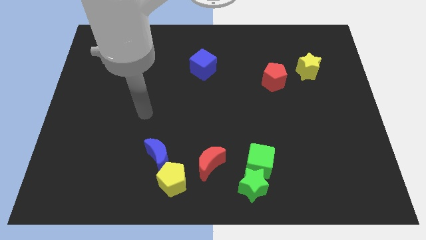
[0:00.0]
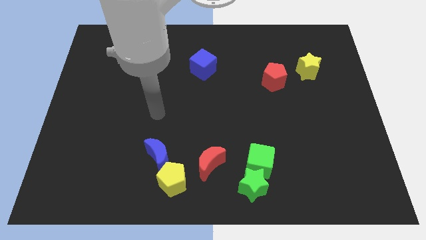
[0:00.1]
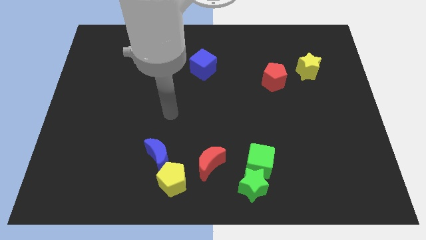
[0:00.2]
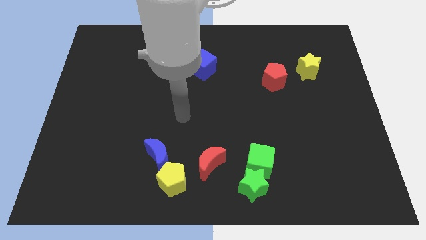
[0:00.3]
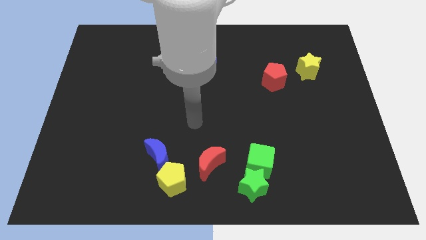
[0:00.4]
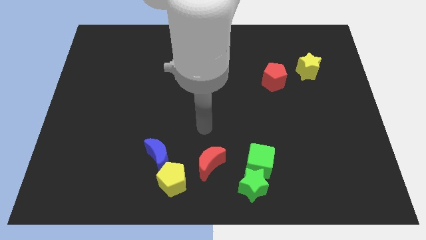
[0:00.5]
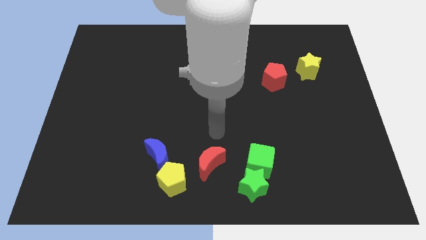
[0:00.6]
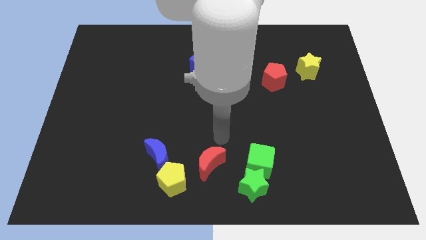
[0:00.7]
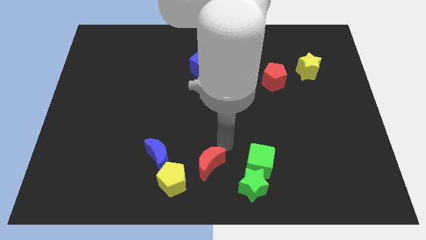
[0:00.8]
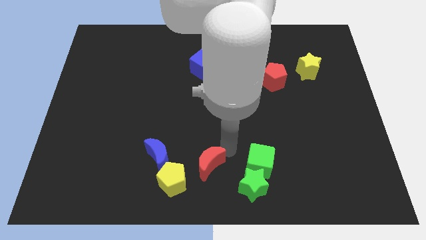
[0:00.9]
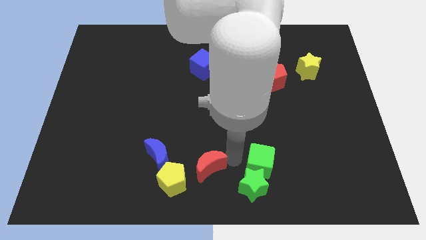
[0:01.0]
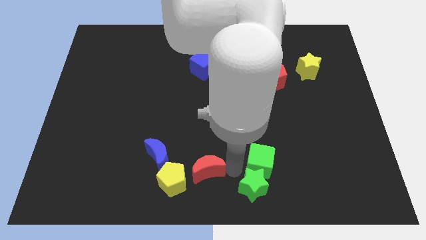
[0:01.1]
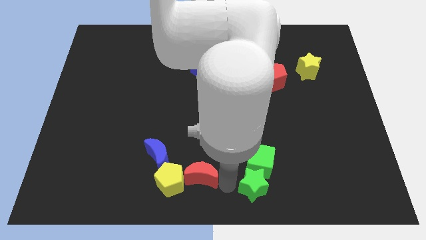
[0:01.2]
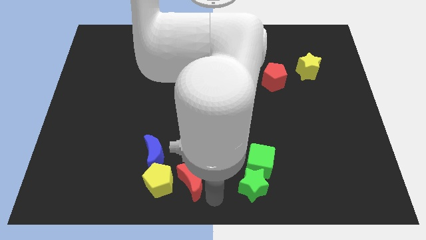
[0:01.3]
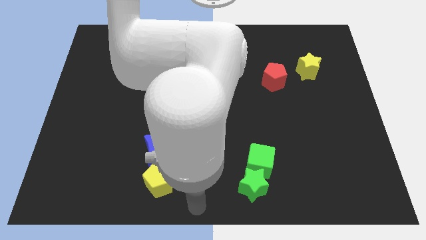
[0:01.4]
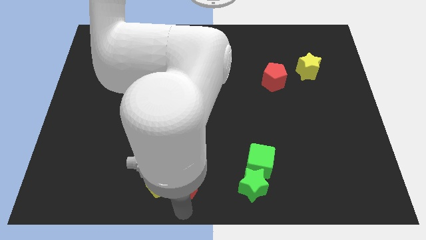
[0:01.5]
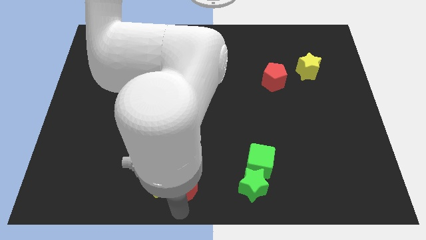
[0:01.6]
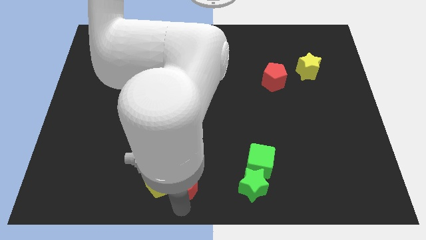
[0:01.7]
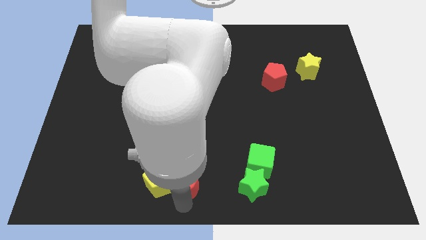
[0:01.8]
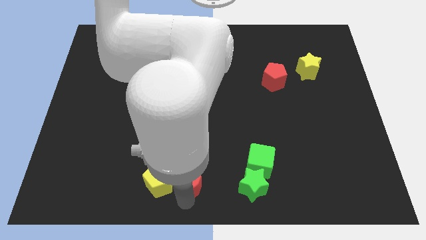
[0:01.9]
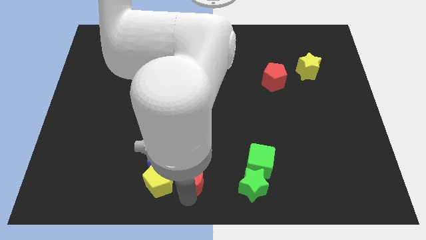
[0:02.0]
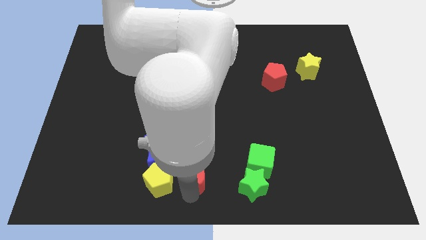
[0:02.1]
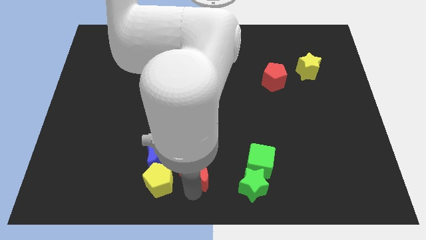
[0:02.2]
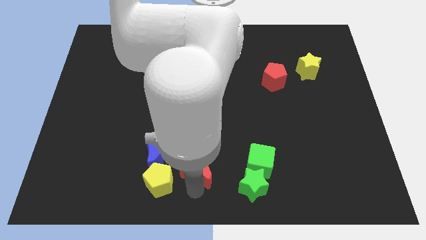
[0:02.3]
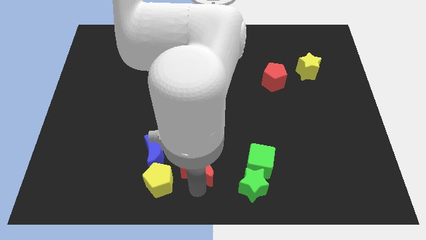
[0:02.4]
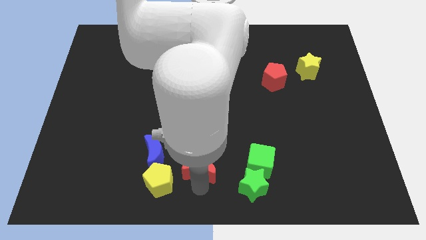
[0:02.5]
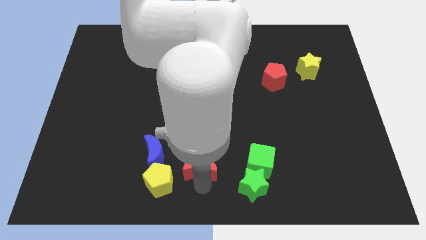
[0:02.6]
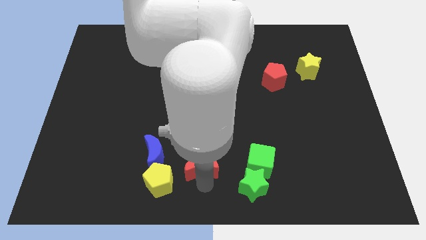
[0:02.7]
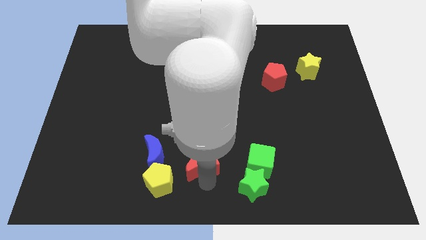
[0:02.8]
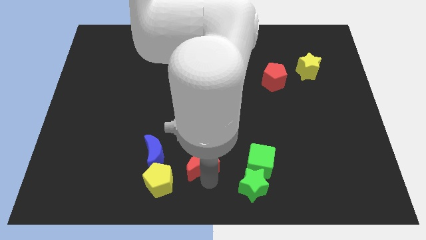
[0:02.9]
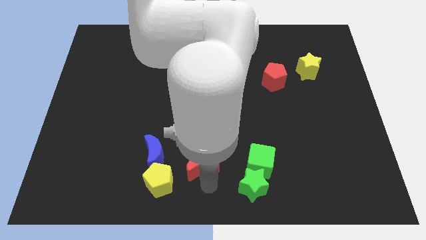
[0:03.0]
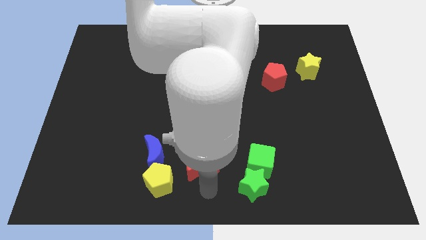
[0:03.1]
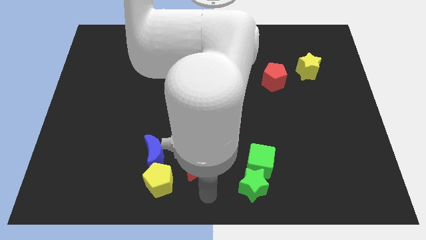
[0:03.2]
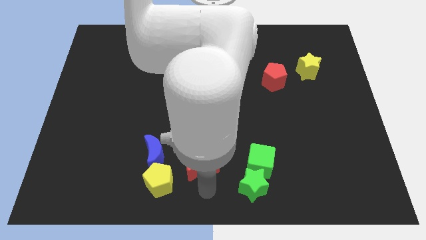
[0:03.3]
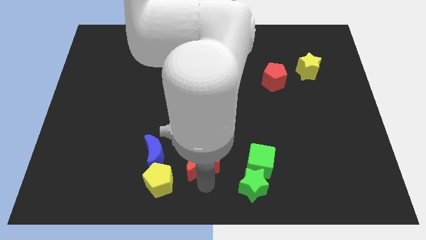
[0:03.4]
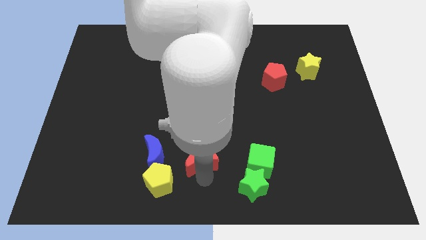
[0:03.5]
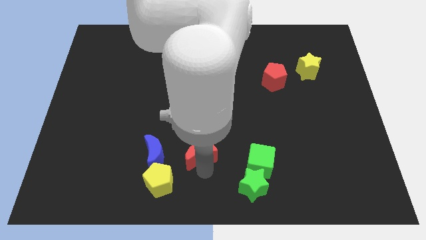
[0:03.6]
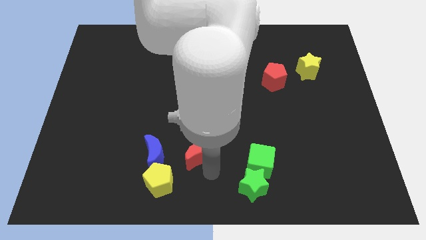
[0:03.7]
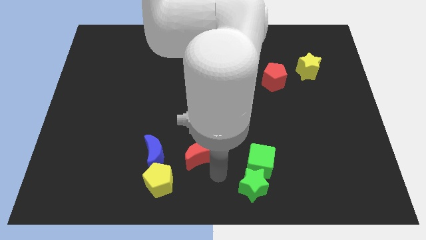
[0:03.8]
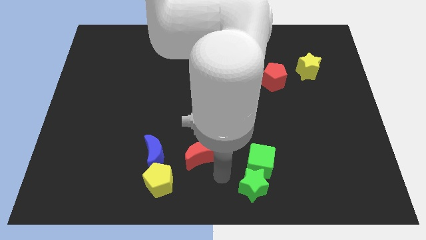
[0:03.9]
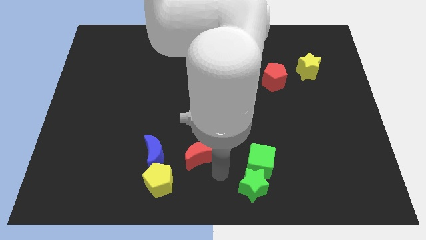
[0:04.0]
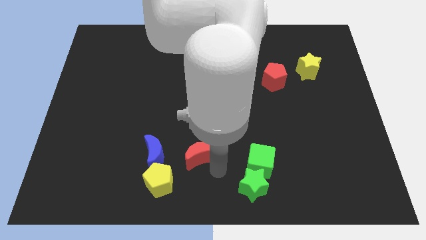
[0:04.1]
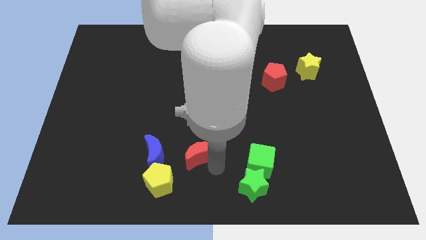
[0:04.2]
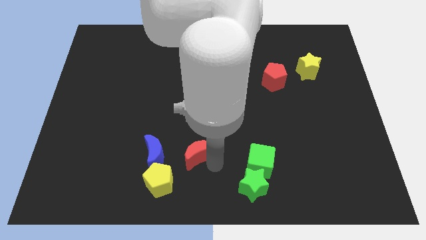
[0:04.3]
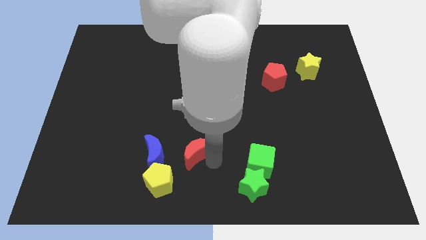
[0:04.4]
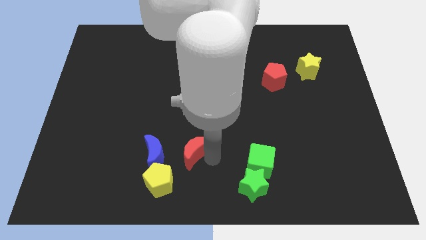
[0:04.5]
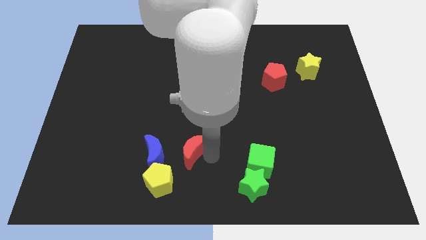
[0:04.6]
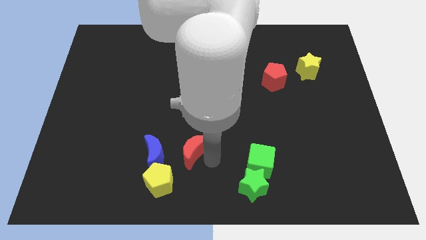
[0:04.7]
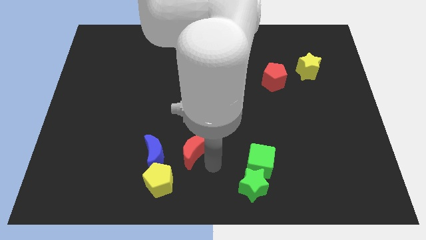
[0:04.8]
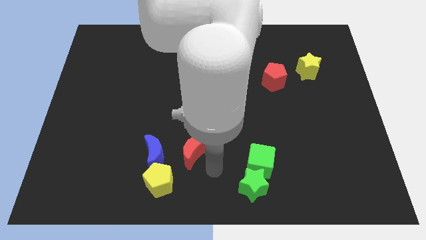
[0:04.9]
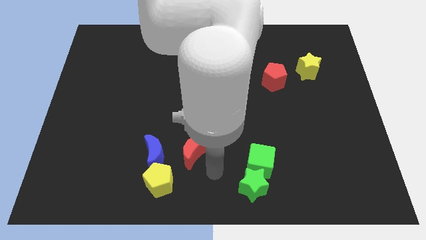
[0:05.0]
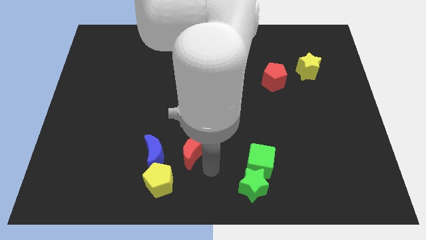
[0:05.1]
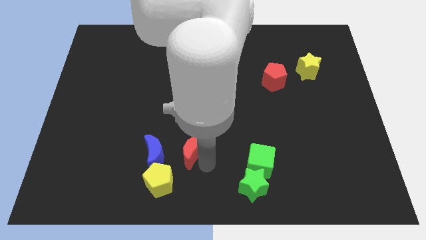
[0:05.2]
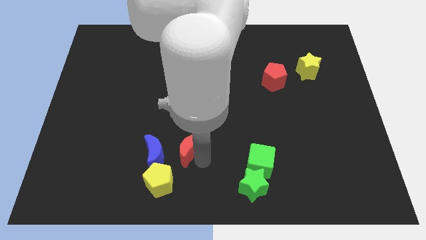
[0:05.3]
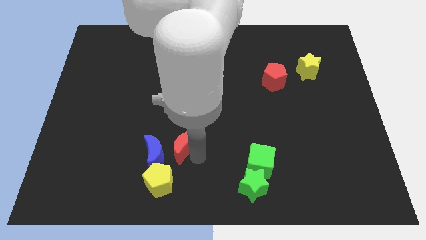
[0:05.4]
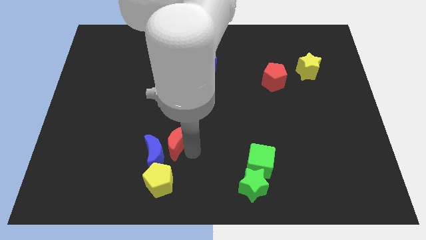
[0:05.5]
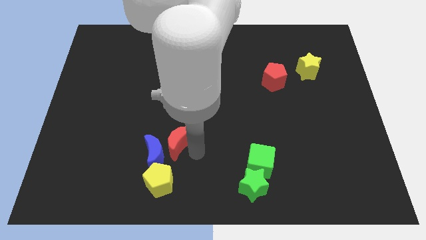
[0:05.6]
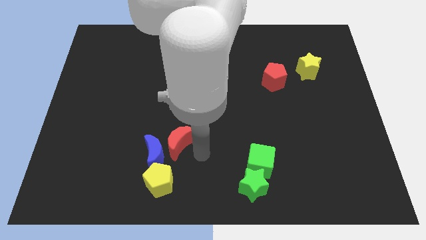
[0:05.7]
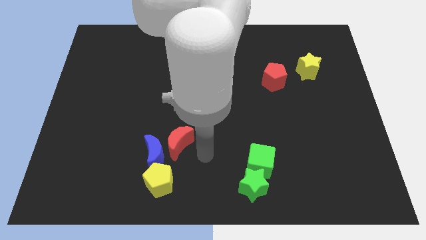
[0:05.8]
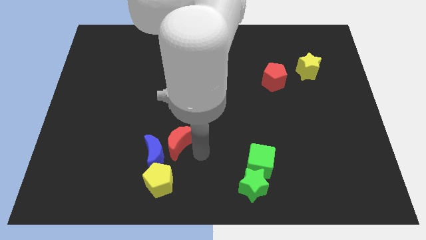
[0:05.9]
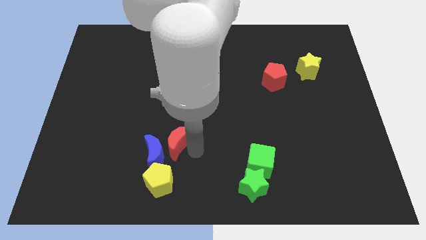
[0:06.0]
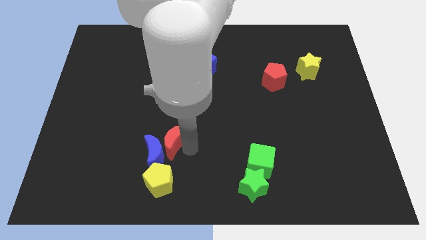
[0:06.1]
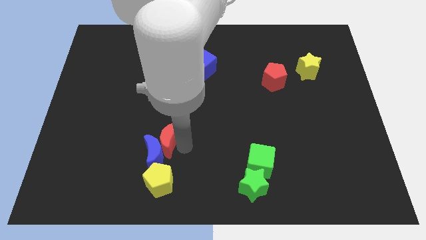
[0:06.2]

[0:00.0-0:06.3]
slightly slide the red moon to the left

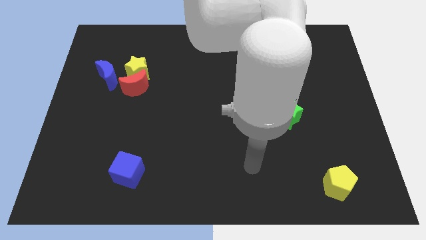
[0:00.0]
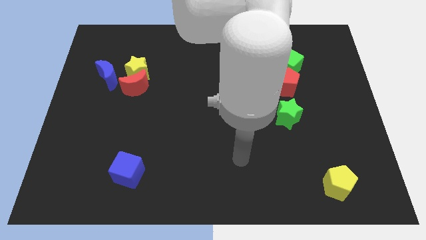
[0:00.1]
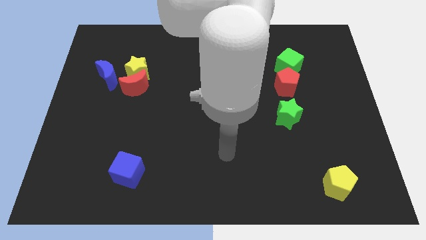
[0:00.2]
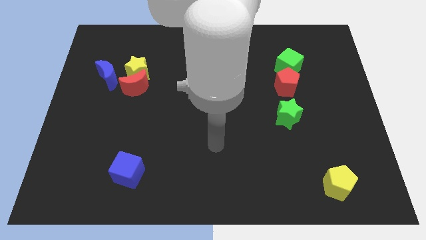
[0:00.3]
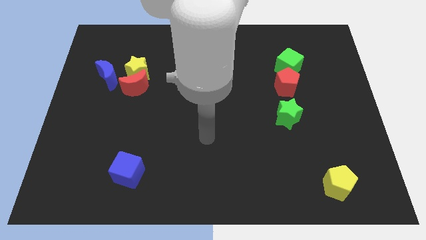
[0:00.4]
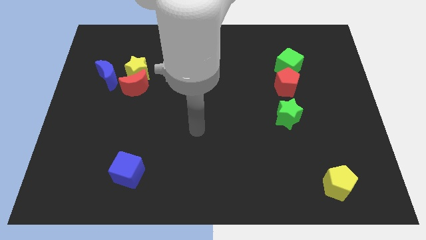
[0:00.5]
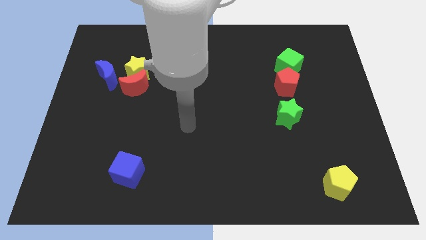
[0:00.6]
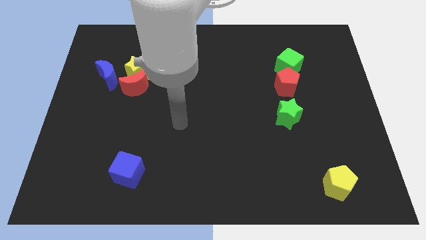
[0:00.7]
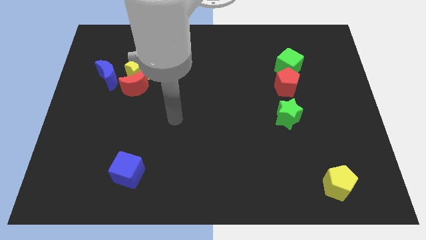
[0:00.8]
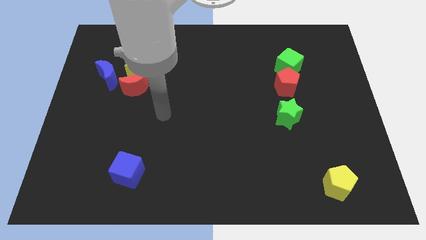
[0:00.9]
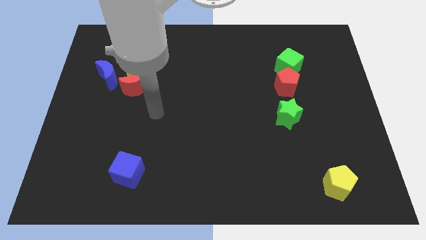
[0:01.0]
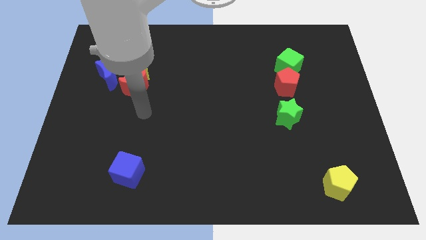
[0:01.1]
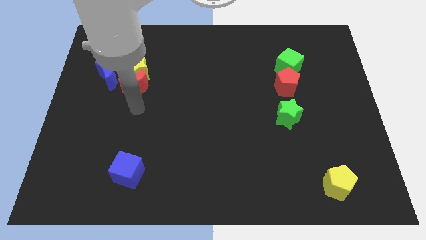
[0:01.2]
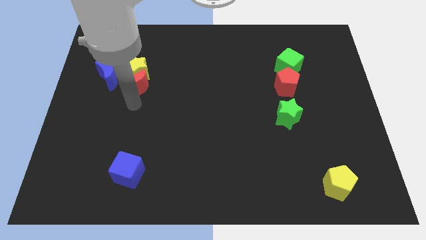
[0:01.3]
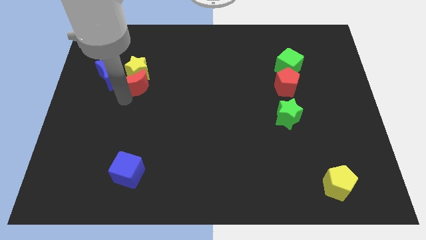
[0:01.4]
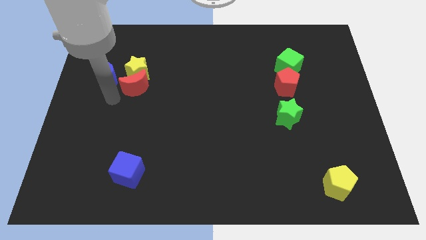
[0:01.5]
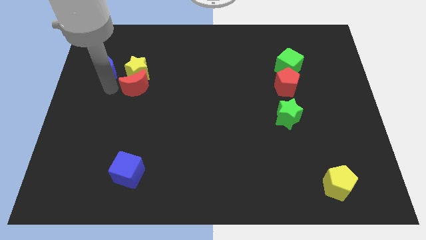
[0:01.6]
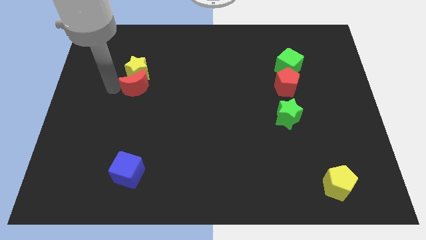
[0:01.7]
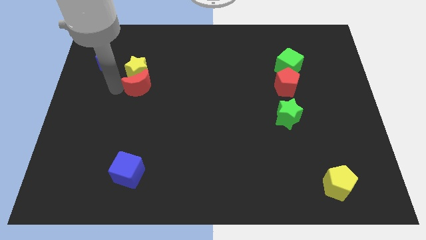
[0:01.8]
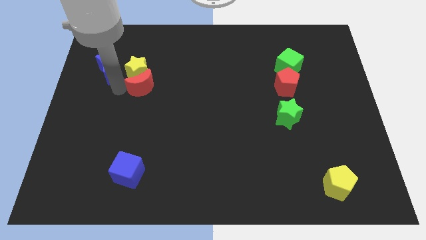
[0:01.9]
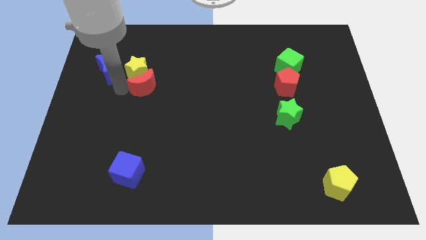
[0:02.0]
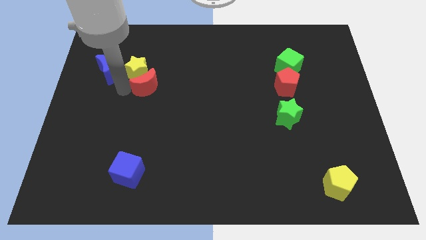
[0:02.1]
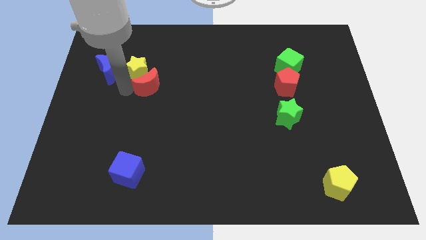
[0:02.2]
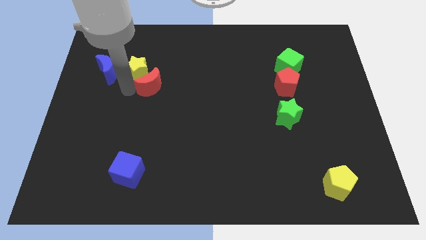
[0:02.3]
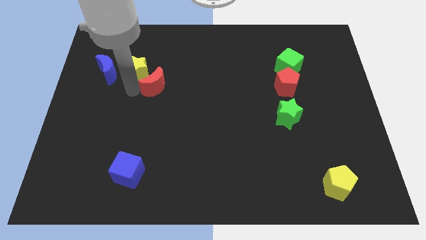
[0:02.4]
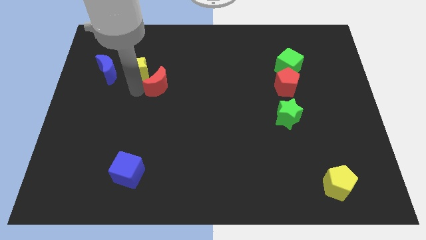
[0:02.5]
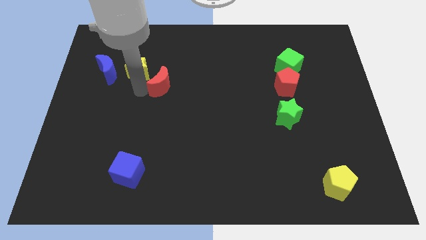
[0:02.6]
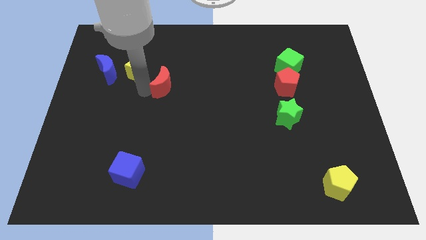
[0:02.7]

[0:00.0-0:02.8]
push the red moon a little right
